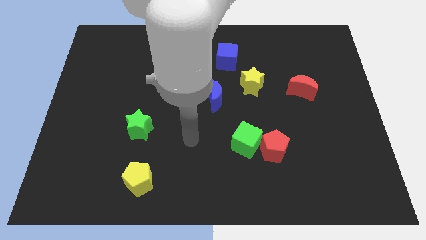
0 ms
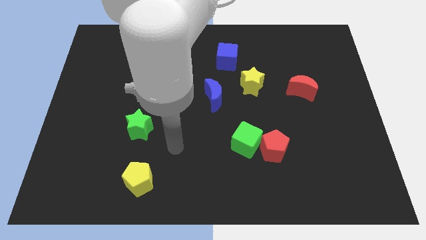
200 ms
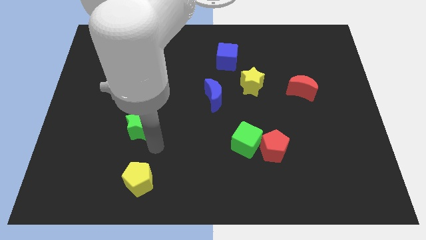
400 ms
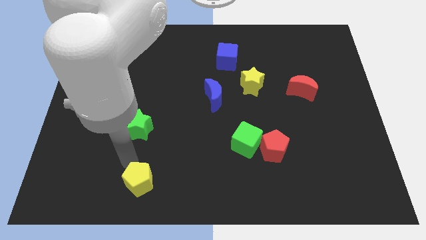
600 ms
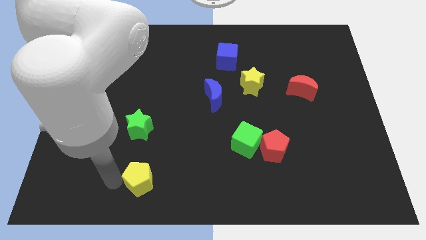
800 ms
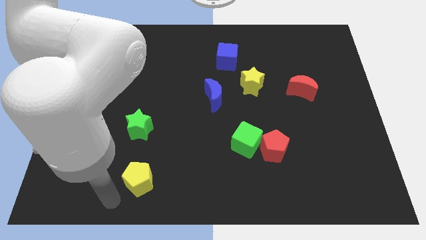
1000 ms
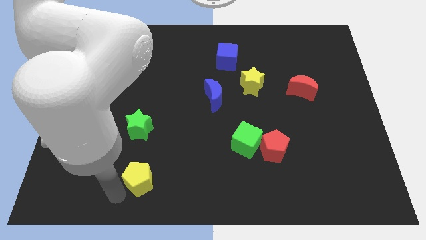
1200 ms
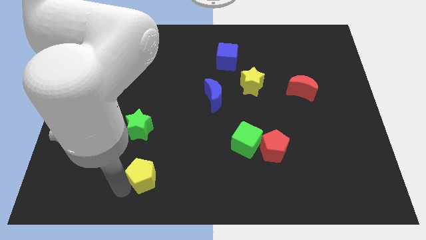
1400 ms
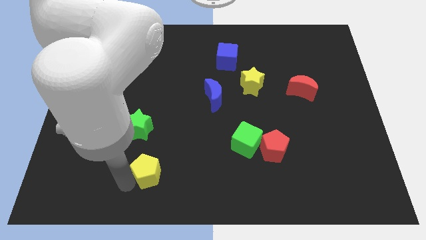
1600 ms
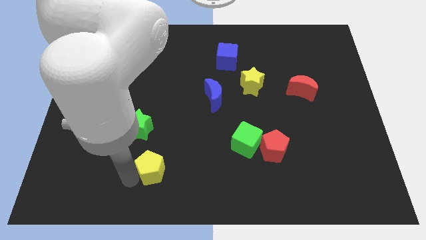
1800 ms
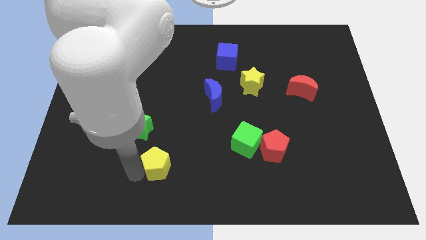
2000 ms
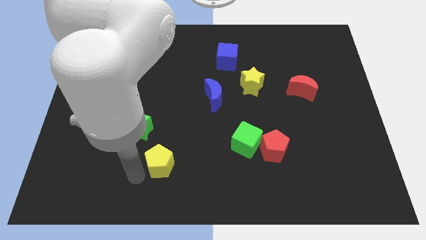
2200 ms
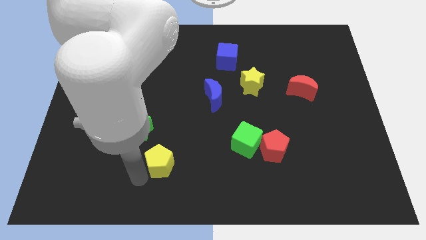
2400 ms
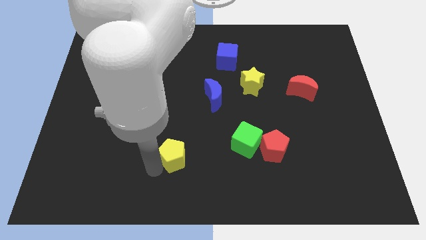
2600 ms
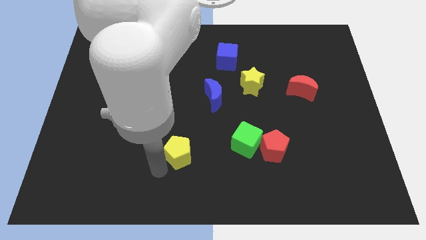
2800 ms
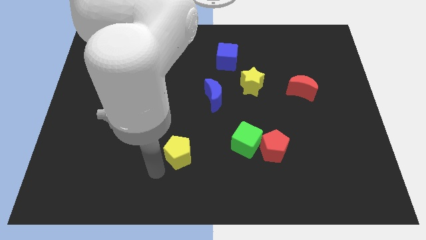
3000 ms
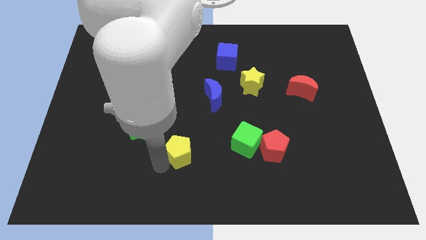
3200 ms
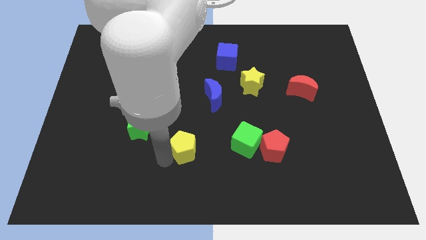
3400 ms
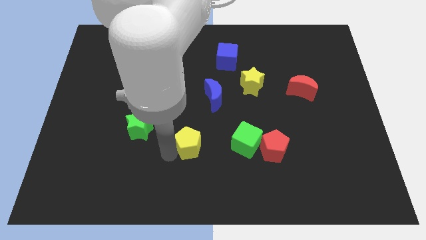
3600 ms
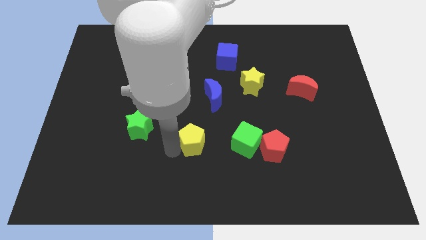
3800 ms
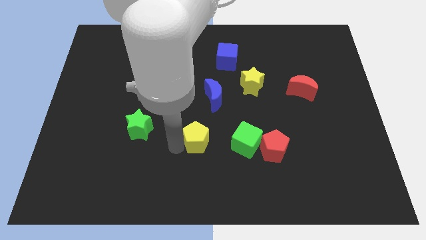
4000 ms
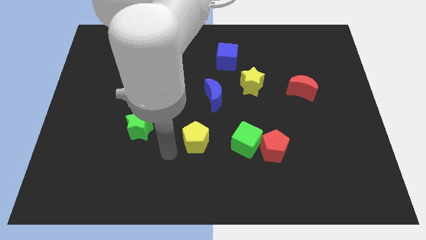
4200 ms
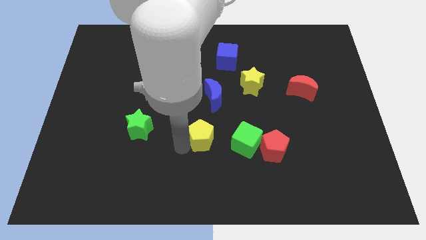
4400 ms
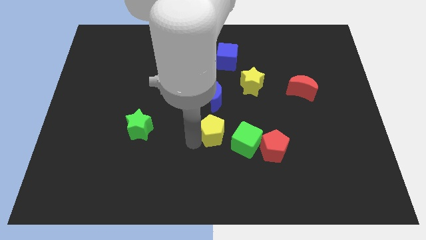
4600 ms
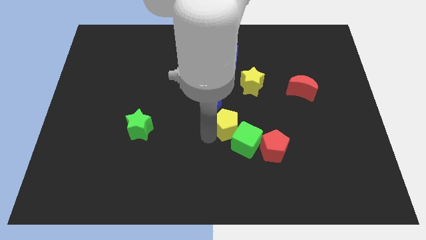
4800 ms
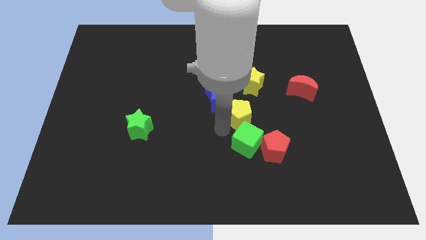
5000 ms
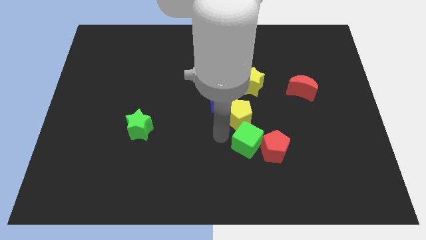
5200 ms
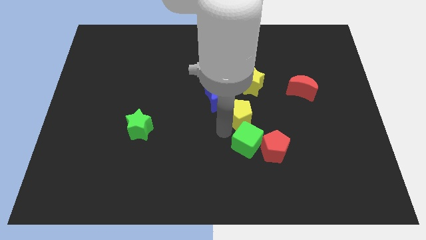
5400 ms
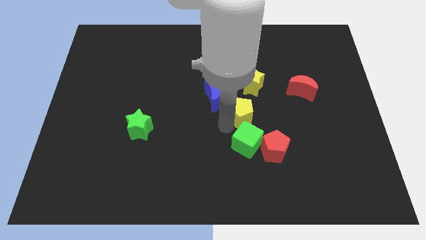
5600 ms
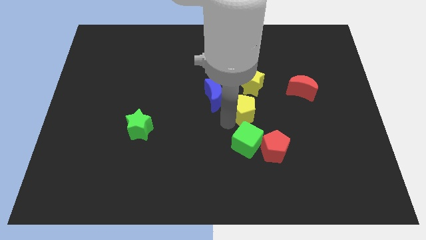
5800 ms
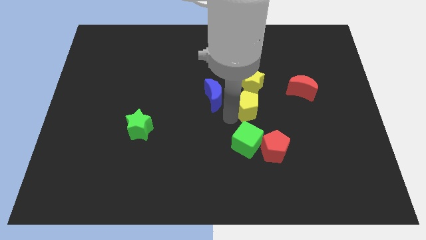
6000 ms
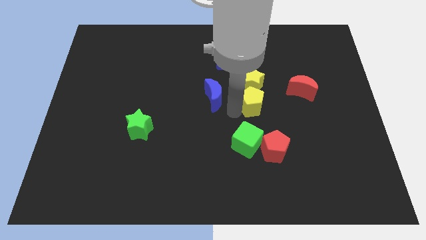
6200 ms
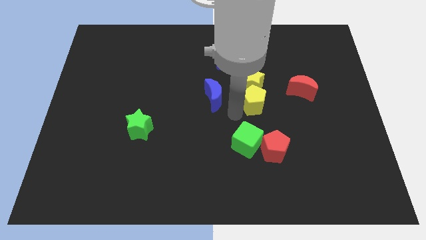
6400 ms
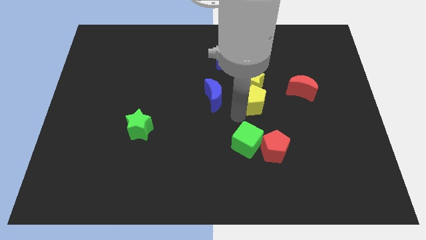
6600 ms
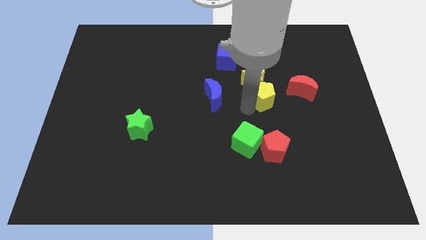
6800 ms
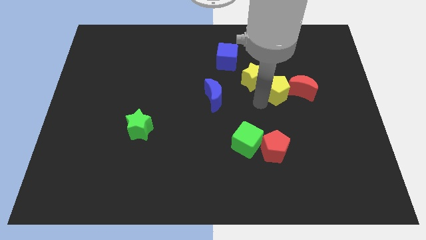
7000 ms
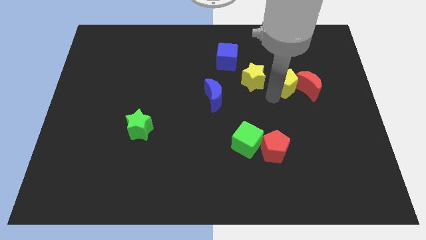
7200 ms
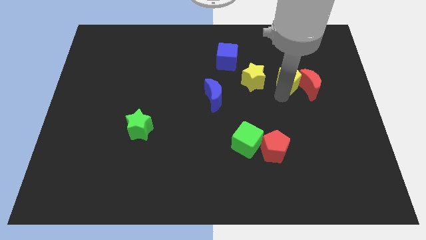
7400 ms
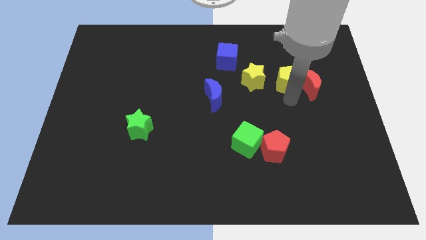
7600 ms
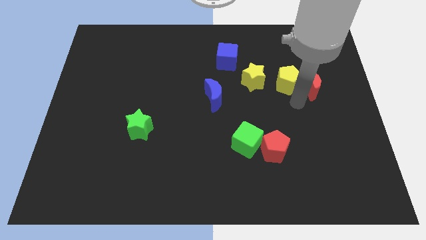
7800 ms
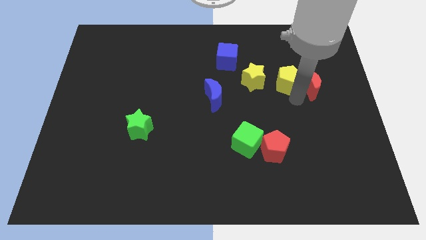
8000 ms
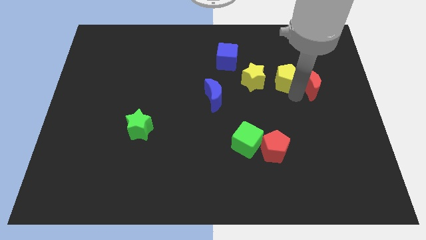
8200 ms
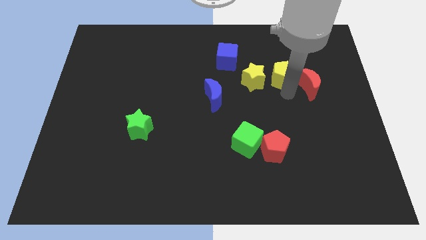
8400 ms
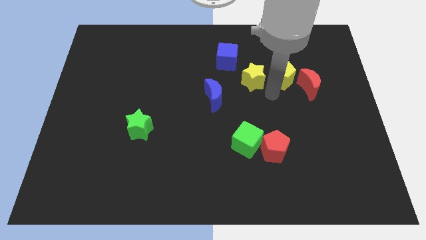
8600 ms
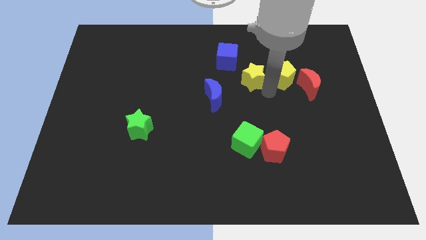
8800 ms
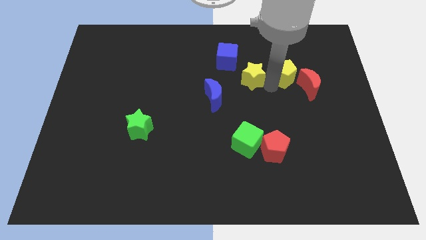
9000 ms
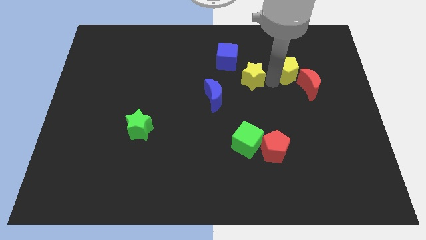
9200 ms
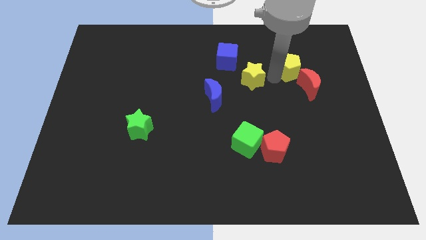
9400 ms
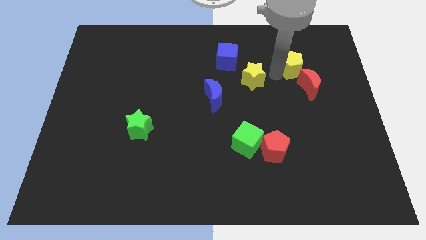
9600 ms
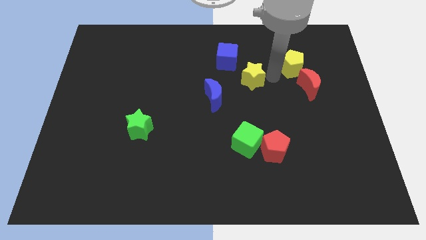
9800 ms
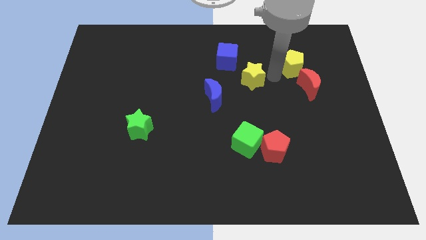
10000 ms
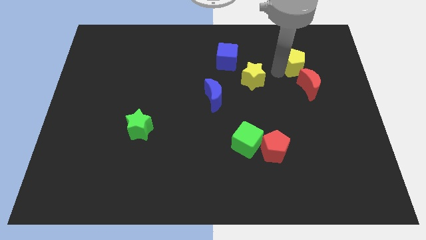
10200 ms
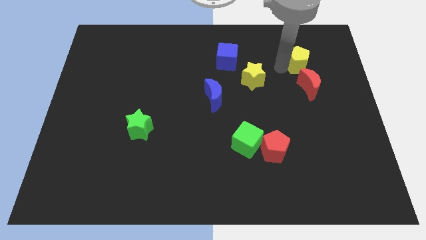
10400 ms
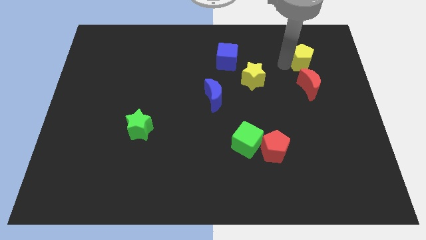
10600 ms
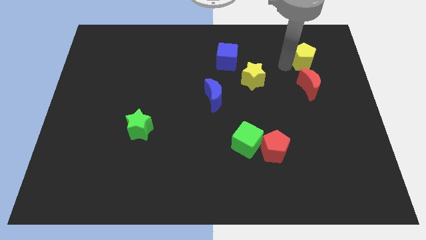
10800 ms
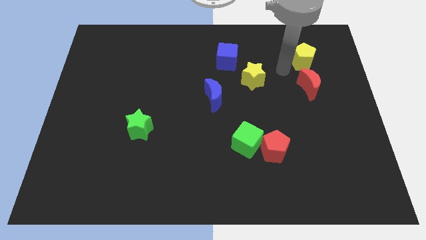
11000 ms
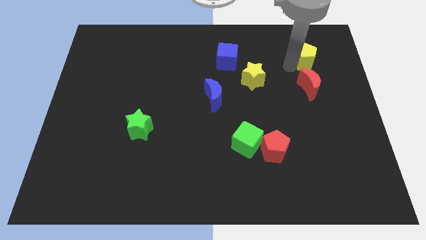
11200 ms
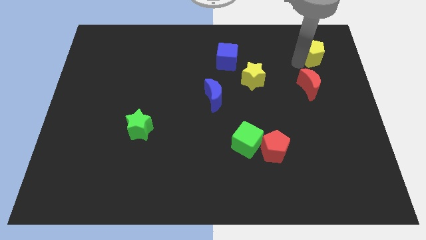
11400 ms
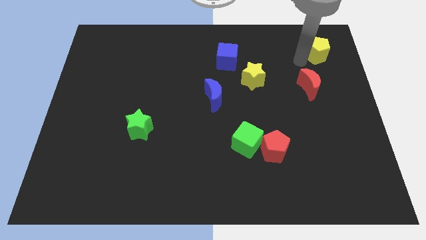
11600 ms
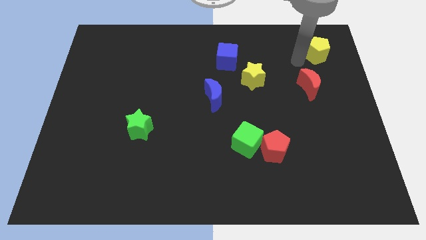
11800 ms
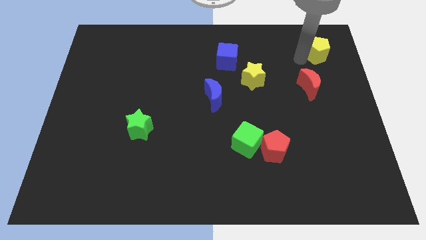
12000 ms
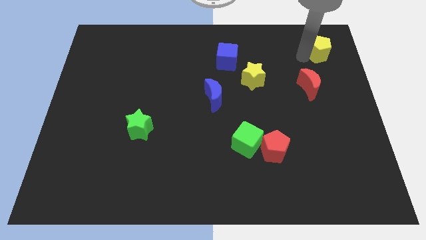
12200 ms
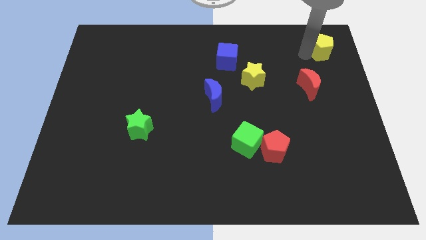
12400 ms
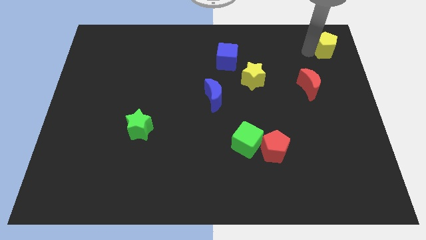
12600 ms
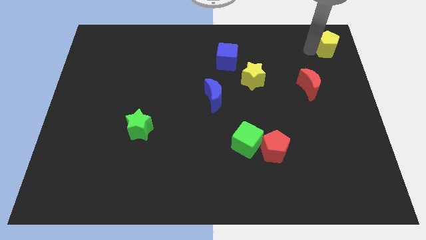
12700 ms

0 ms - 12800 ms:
put the yellow pentagon to the top right
